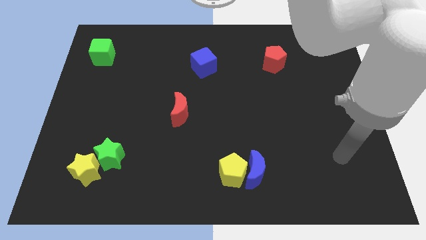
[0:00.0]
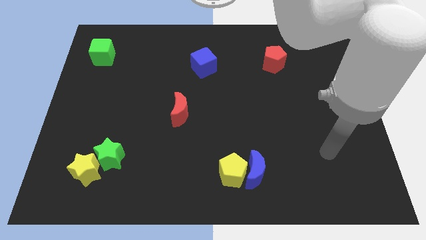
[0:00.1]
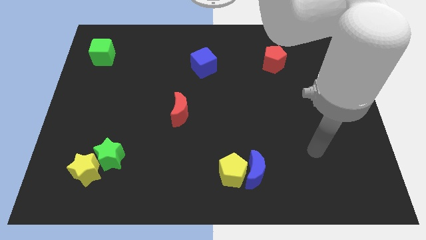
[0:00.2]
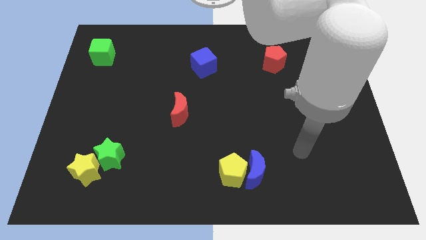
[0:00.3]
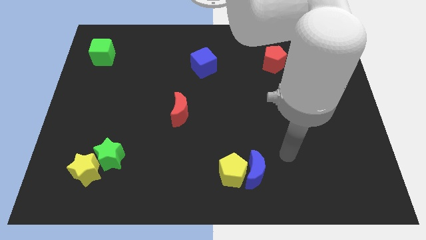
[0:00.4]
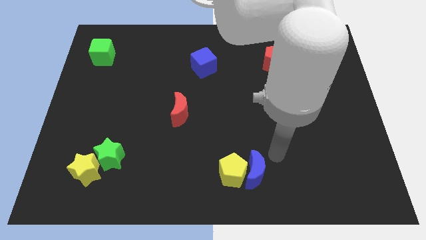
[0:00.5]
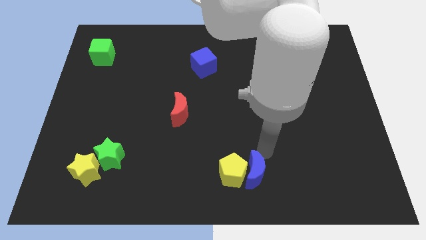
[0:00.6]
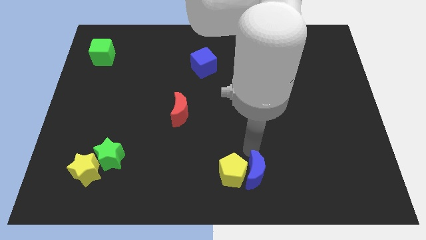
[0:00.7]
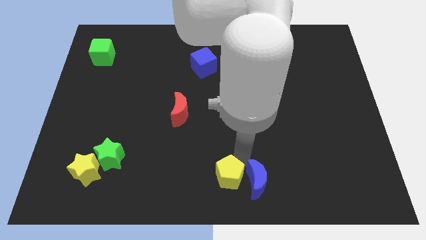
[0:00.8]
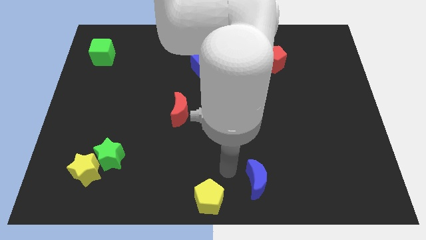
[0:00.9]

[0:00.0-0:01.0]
move the blue moon away from the yellow pentagon

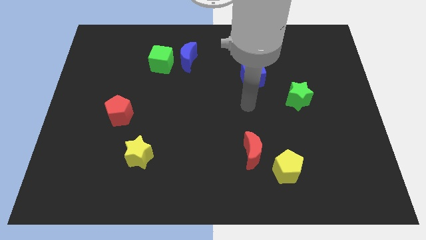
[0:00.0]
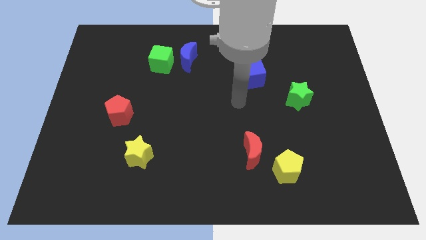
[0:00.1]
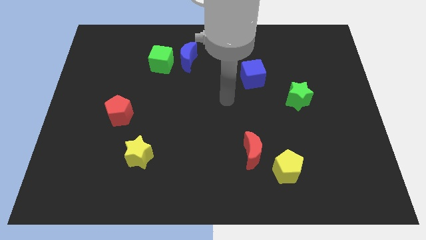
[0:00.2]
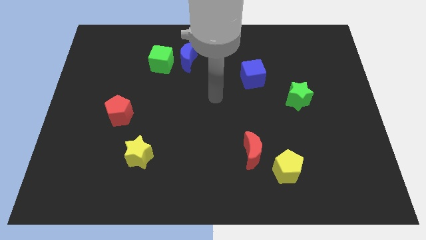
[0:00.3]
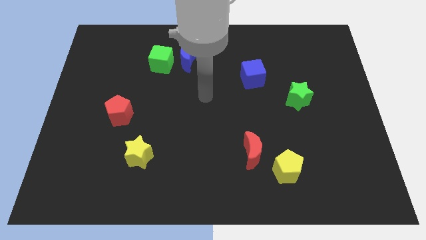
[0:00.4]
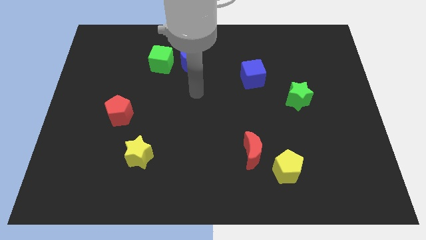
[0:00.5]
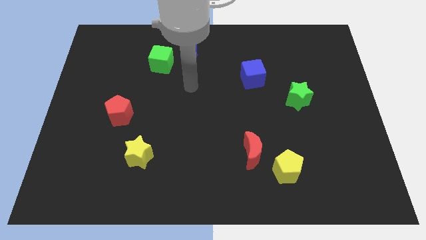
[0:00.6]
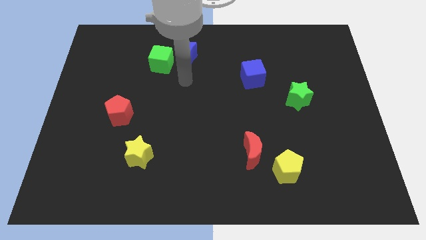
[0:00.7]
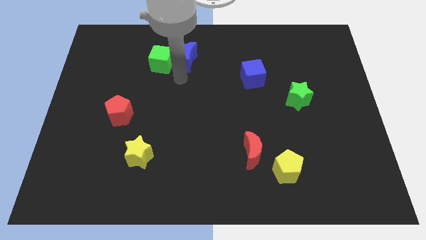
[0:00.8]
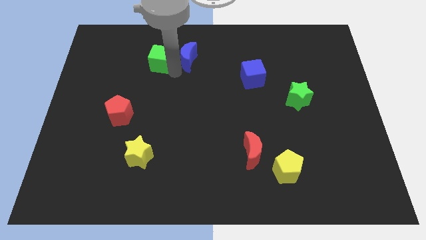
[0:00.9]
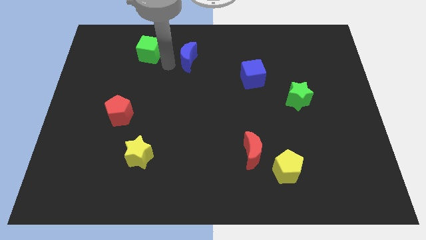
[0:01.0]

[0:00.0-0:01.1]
move the blue moon away from the green cube

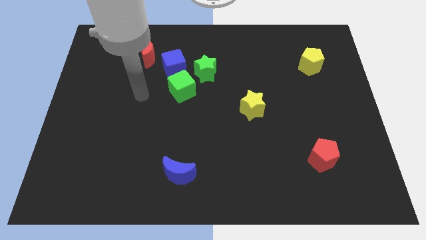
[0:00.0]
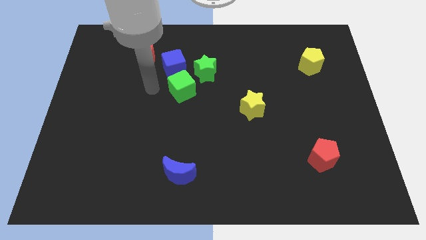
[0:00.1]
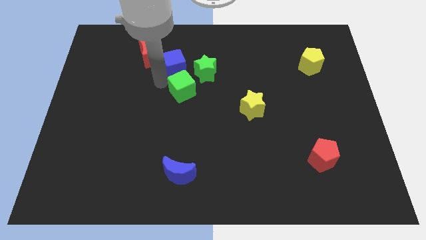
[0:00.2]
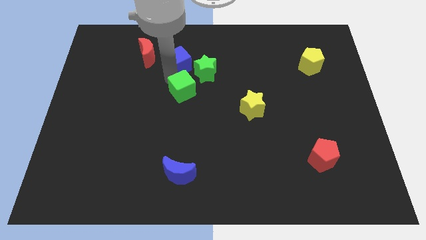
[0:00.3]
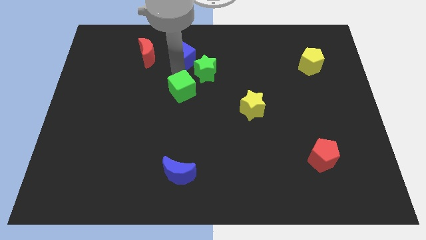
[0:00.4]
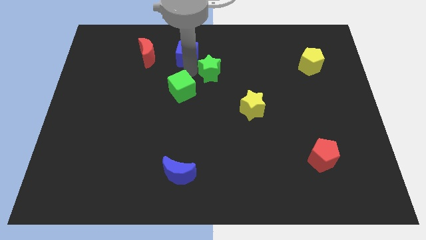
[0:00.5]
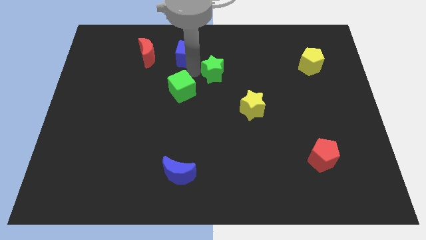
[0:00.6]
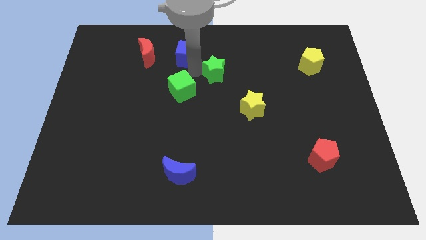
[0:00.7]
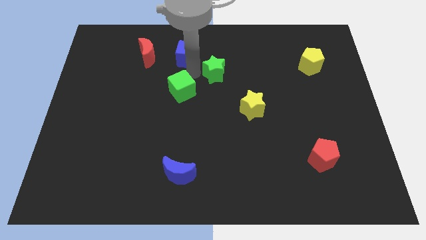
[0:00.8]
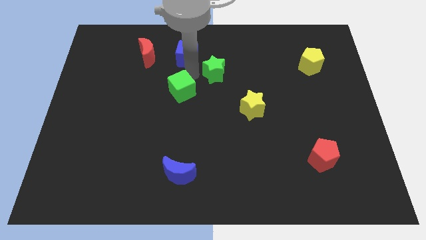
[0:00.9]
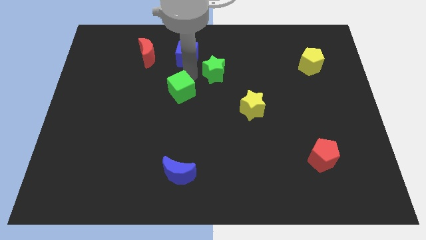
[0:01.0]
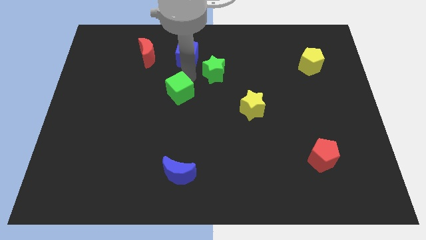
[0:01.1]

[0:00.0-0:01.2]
pull the green cube apart from the blue cube and green star

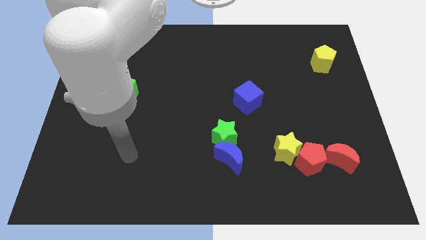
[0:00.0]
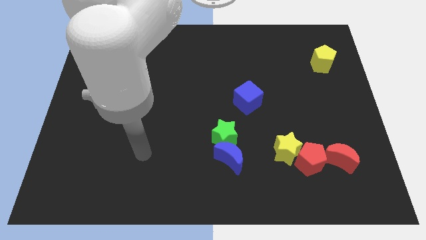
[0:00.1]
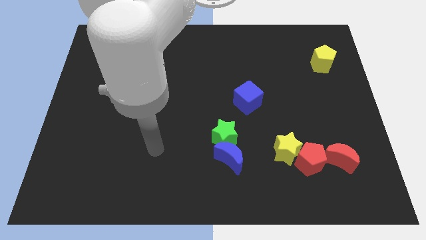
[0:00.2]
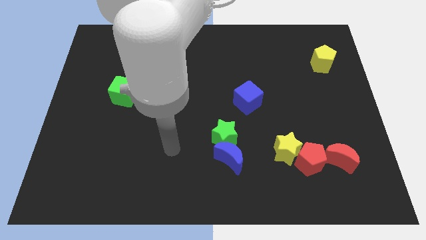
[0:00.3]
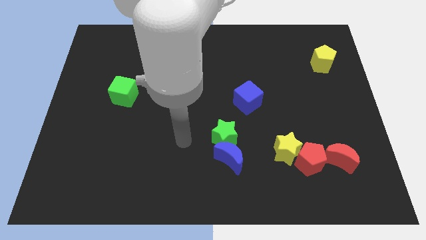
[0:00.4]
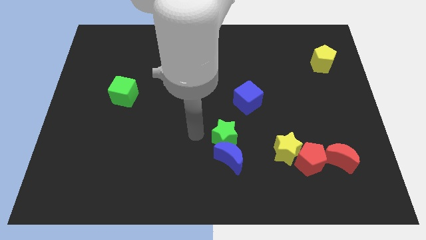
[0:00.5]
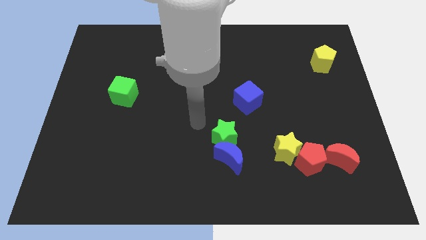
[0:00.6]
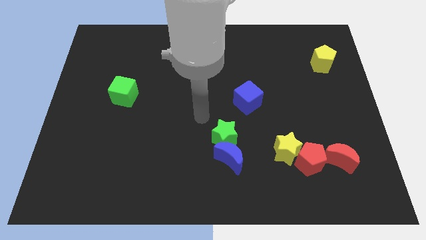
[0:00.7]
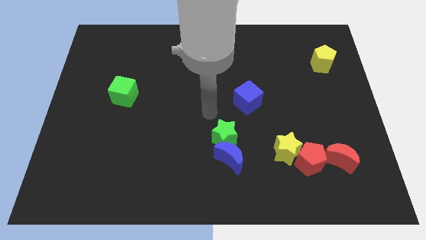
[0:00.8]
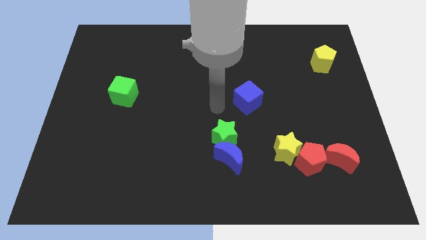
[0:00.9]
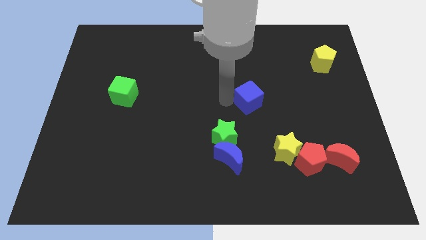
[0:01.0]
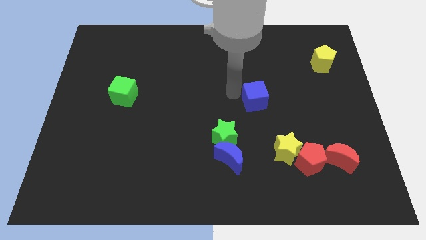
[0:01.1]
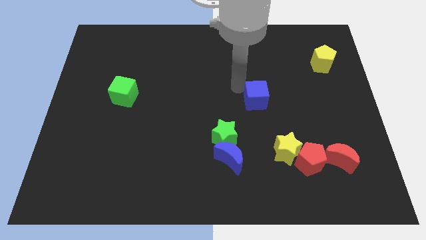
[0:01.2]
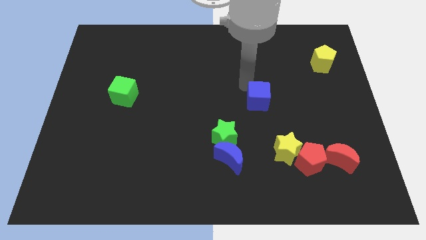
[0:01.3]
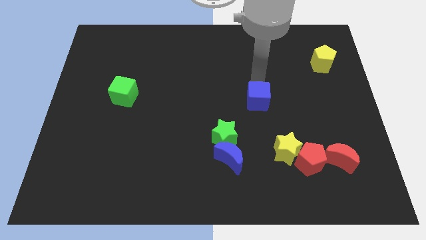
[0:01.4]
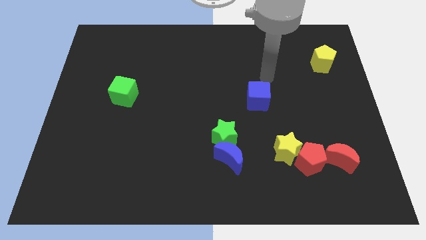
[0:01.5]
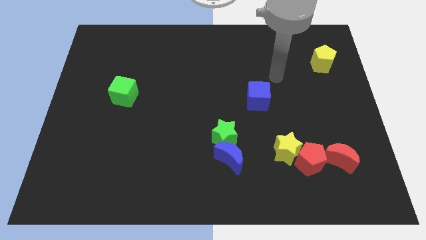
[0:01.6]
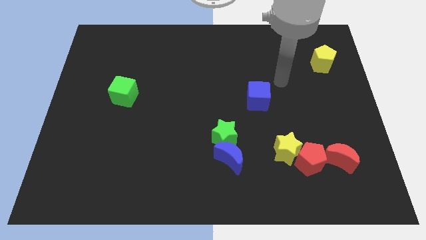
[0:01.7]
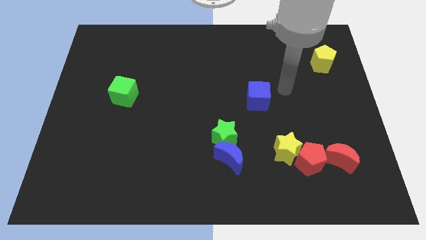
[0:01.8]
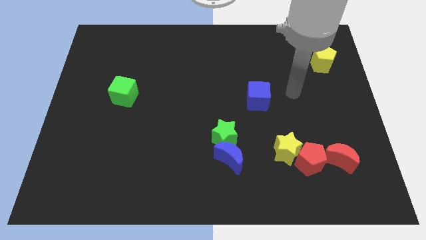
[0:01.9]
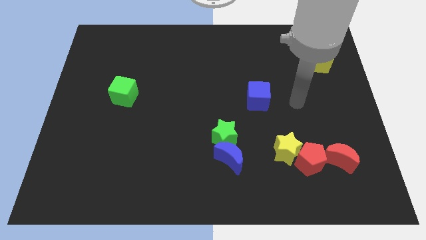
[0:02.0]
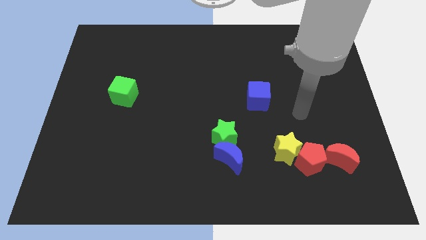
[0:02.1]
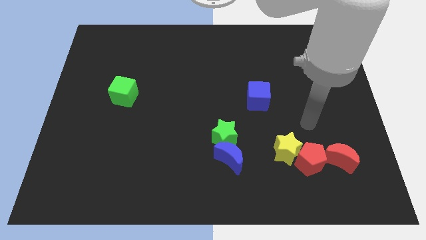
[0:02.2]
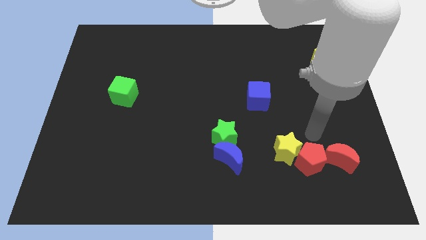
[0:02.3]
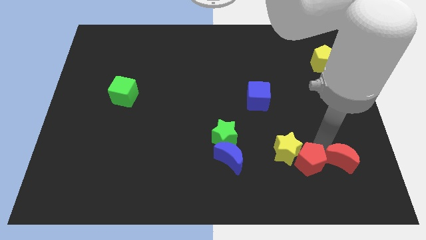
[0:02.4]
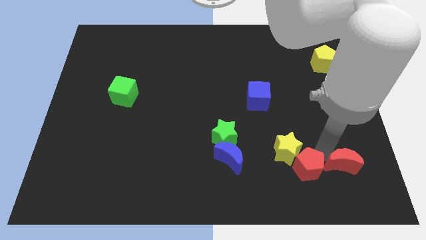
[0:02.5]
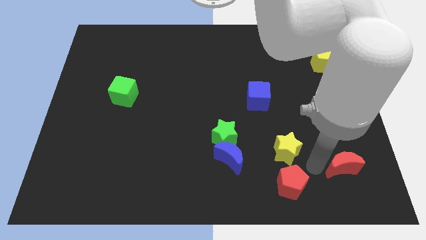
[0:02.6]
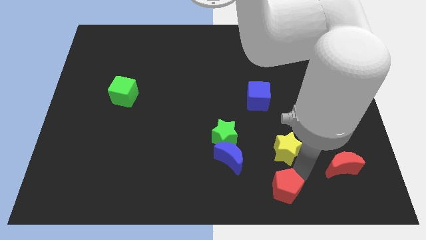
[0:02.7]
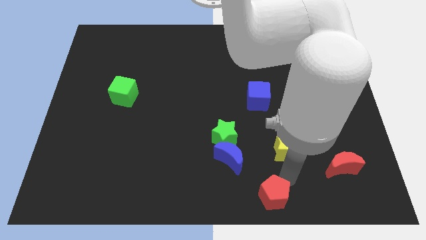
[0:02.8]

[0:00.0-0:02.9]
separate the yellow star from the red pentagon

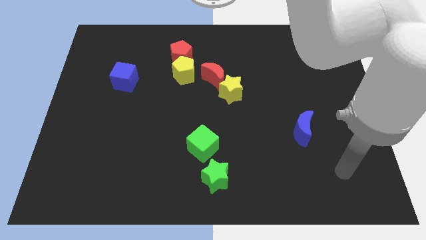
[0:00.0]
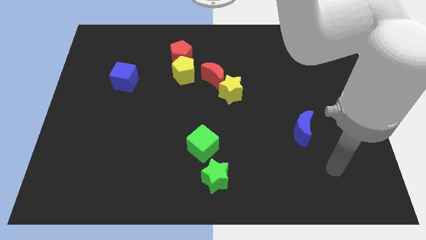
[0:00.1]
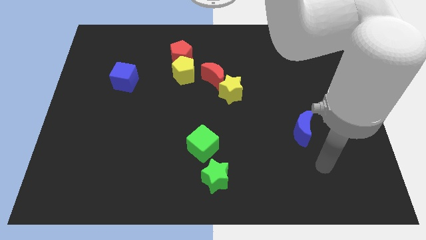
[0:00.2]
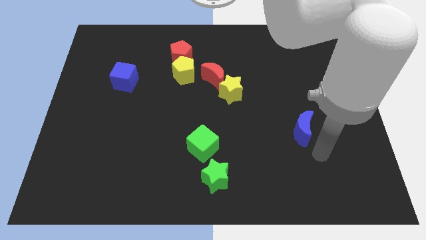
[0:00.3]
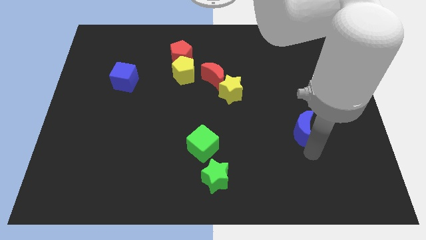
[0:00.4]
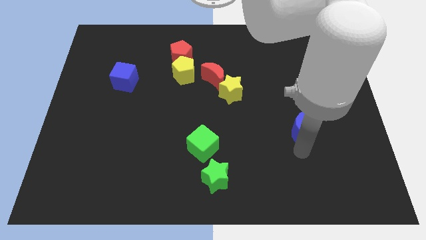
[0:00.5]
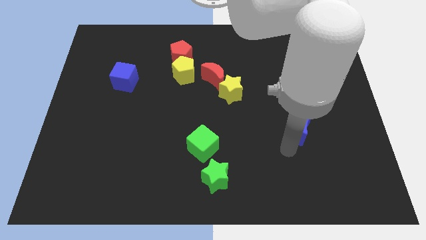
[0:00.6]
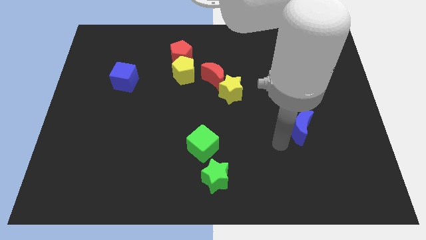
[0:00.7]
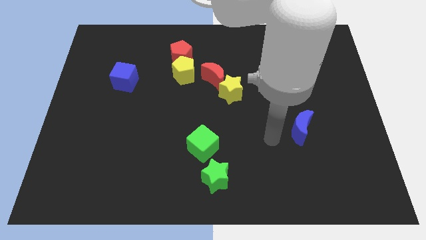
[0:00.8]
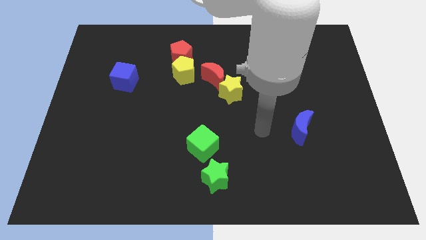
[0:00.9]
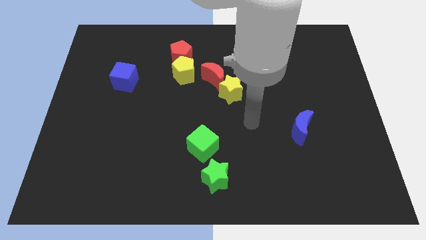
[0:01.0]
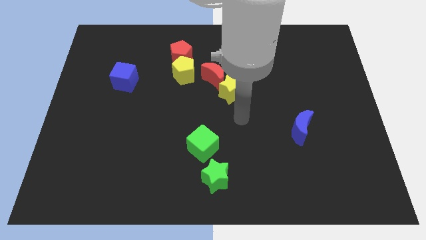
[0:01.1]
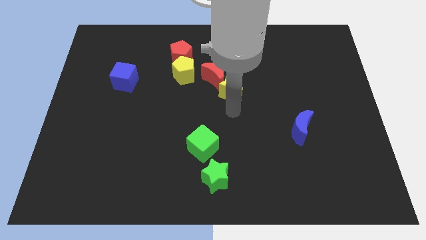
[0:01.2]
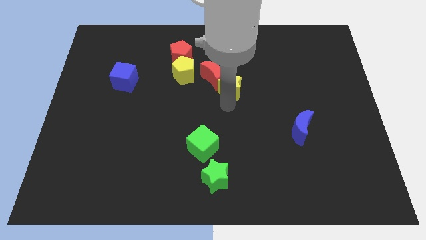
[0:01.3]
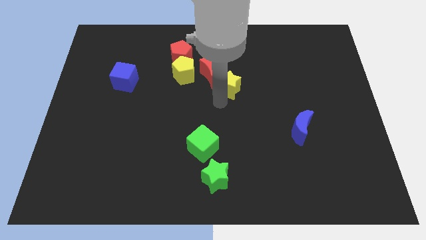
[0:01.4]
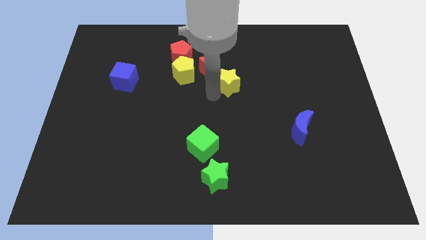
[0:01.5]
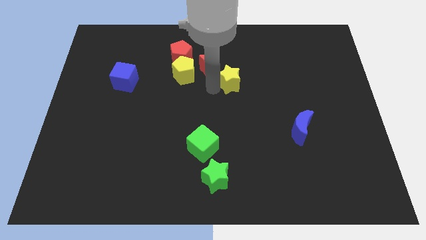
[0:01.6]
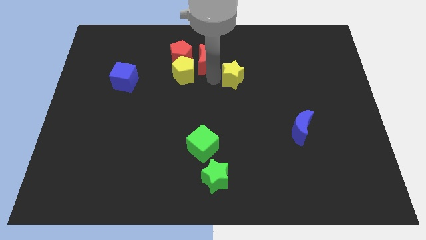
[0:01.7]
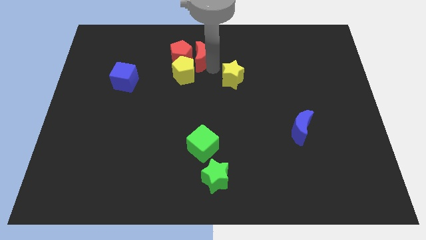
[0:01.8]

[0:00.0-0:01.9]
move the yellow star away from the red moon

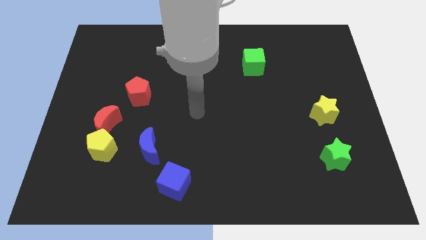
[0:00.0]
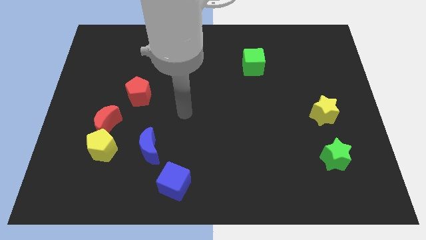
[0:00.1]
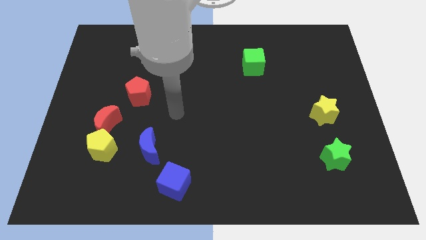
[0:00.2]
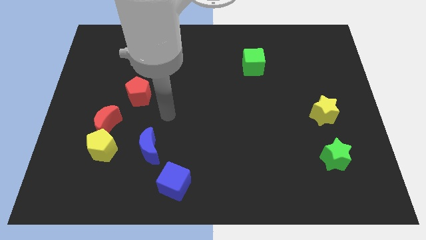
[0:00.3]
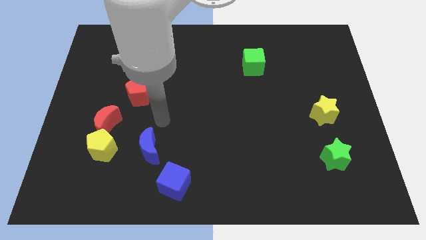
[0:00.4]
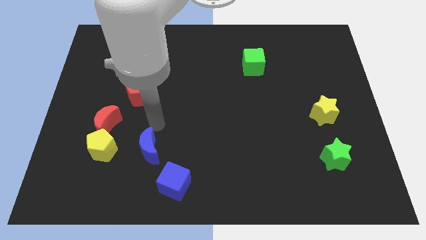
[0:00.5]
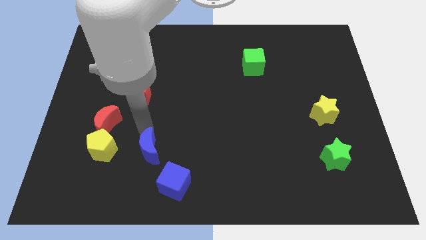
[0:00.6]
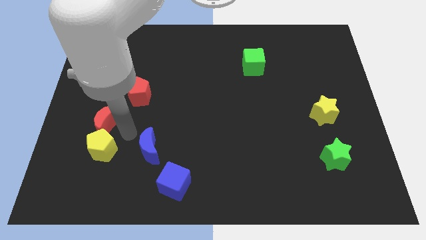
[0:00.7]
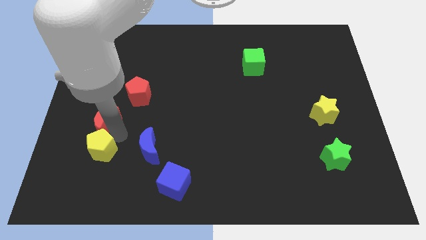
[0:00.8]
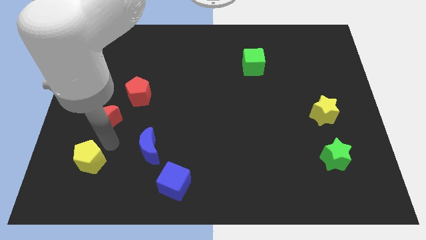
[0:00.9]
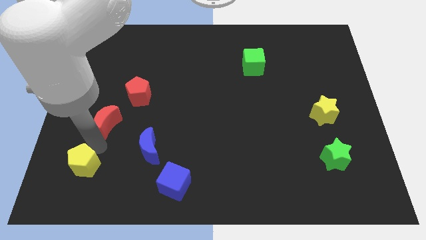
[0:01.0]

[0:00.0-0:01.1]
move the red moon away from the yellow pentagon

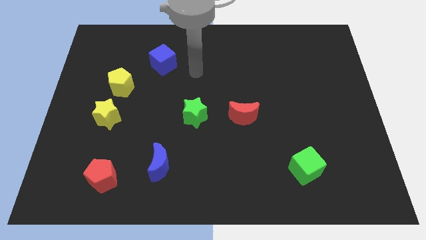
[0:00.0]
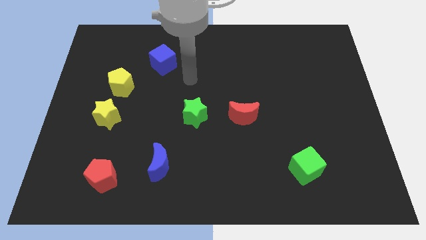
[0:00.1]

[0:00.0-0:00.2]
separate the yellow star from the yellow pentagon
